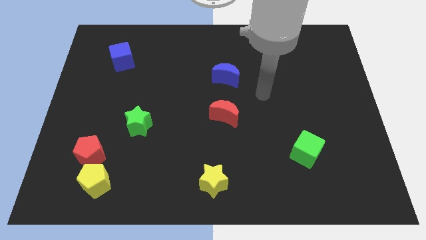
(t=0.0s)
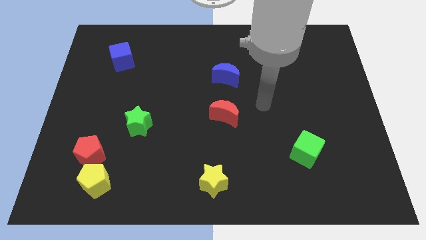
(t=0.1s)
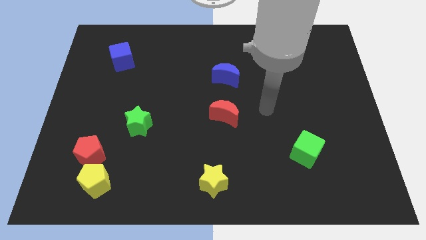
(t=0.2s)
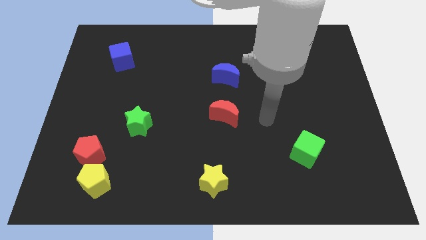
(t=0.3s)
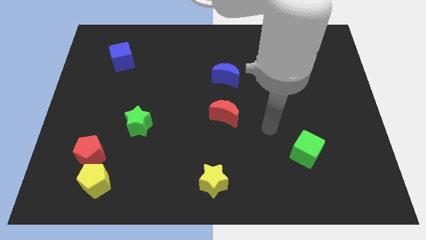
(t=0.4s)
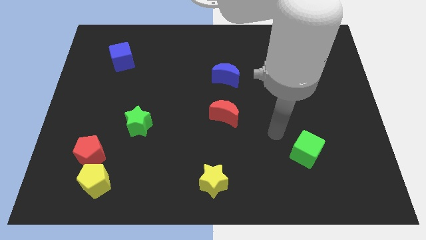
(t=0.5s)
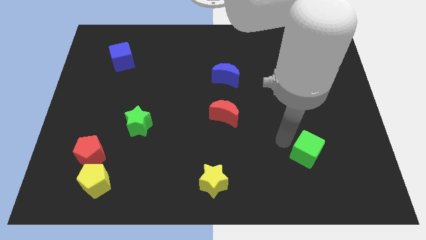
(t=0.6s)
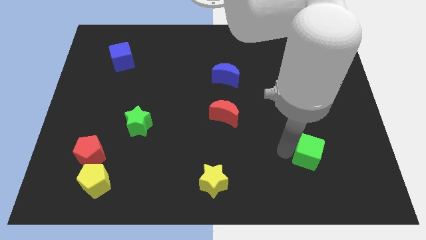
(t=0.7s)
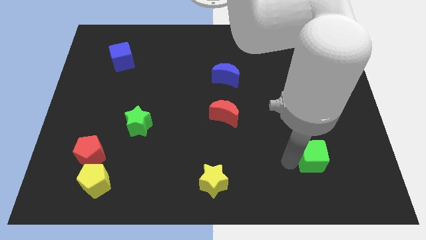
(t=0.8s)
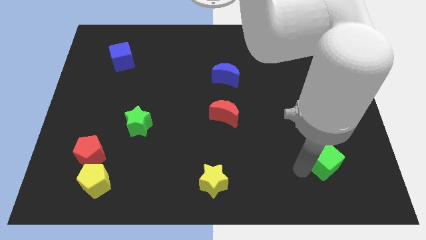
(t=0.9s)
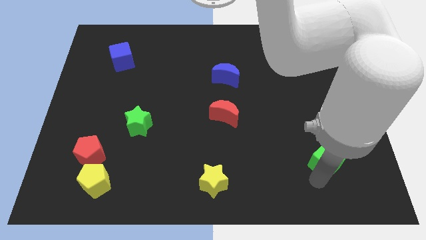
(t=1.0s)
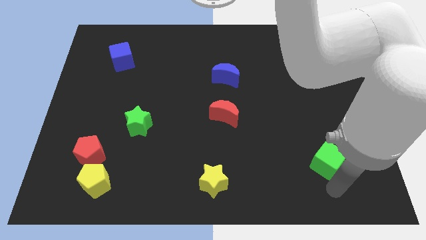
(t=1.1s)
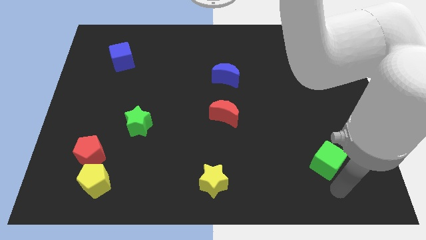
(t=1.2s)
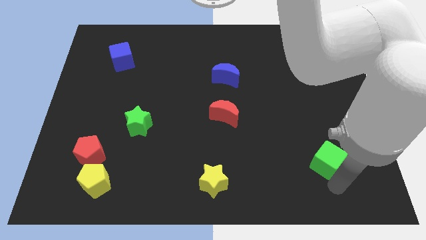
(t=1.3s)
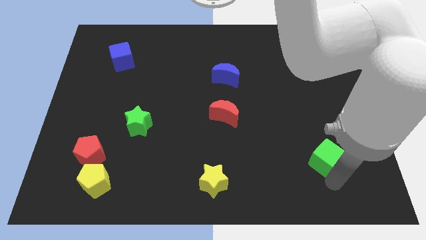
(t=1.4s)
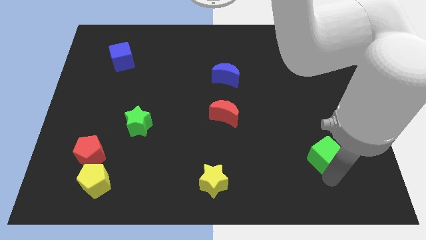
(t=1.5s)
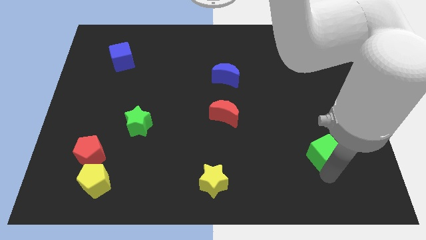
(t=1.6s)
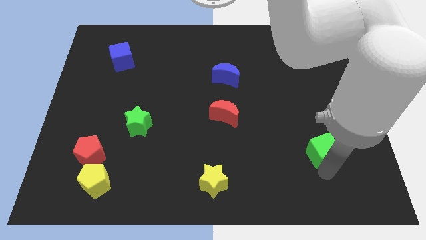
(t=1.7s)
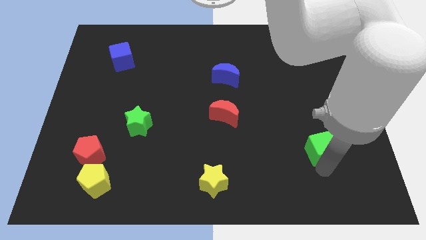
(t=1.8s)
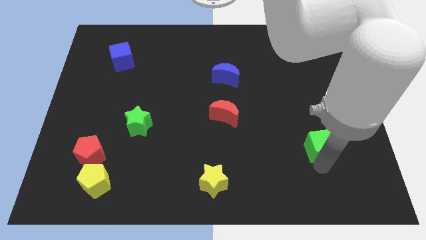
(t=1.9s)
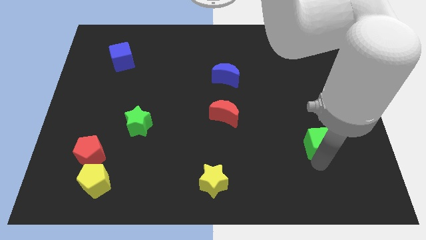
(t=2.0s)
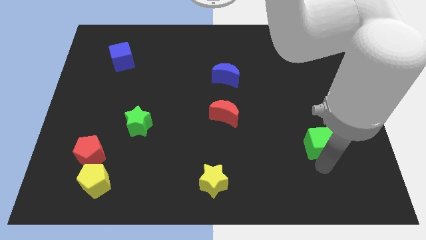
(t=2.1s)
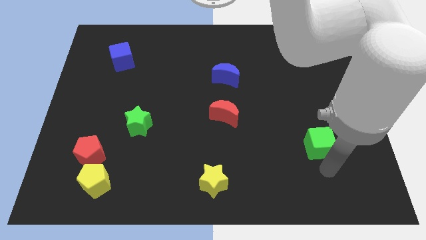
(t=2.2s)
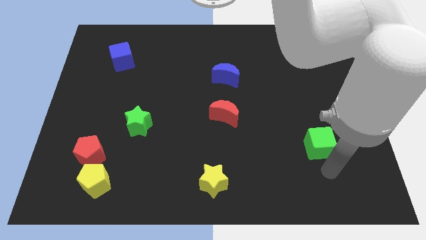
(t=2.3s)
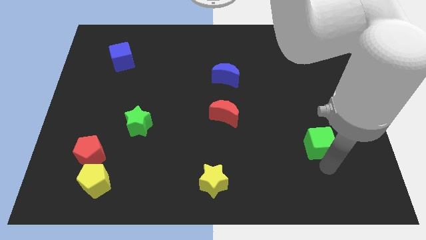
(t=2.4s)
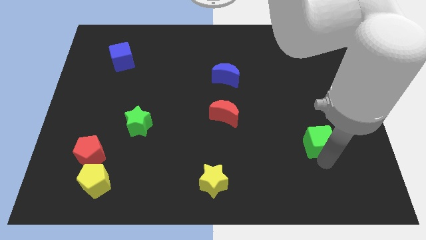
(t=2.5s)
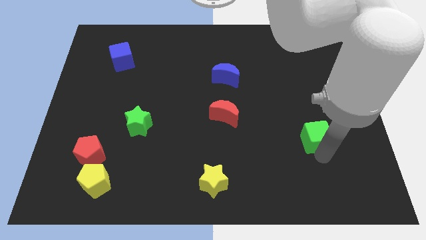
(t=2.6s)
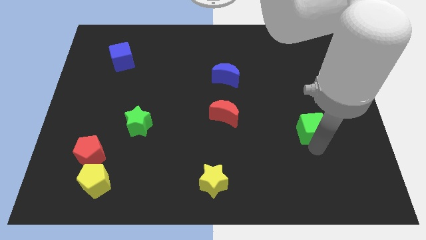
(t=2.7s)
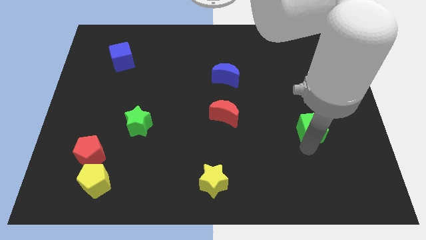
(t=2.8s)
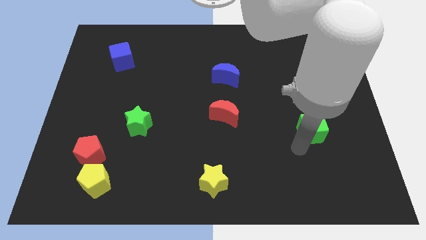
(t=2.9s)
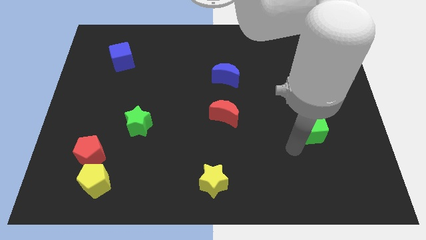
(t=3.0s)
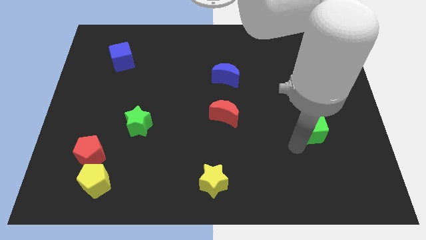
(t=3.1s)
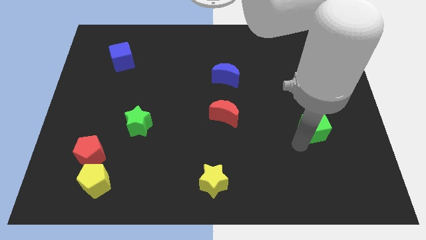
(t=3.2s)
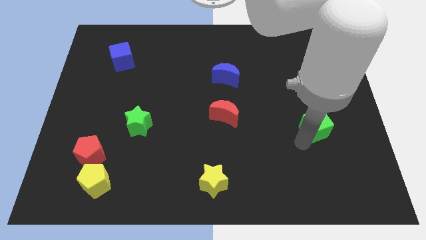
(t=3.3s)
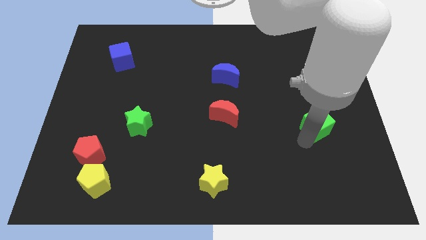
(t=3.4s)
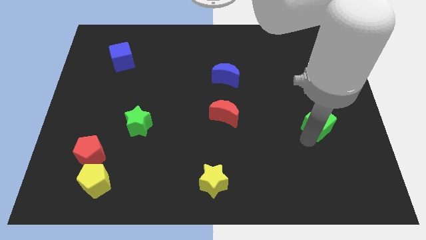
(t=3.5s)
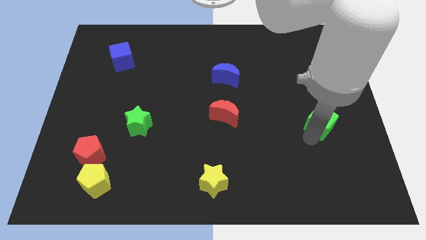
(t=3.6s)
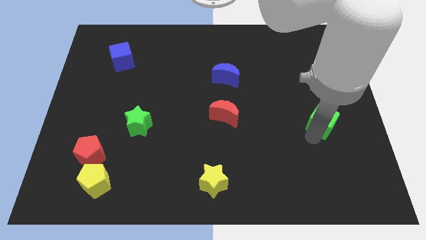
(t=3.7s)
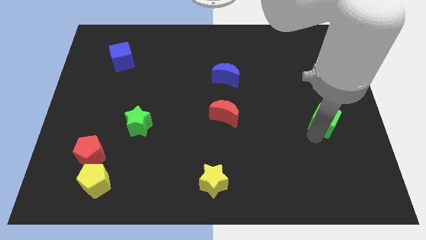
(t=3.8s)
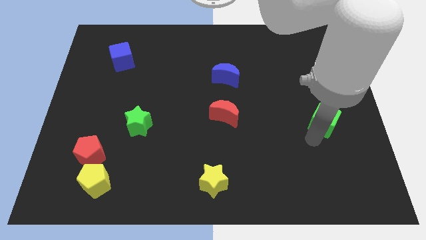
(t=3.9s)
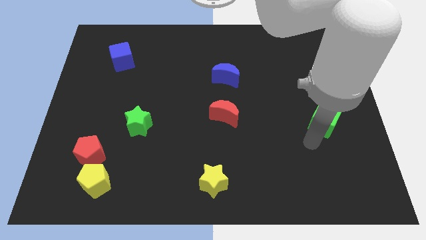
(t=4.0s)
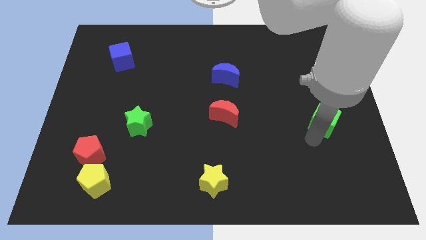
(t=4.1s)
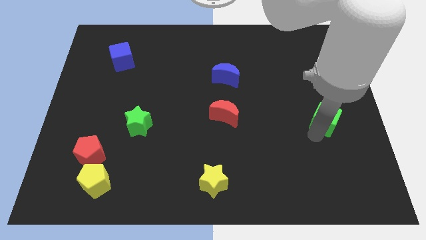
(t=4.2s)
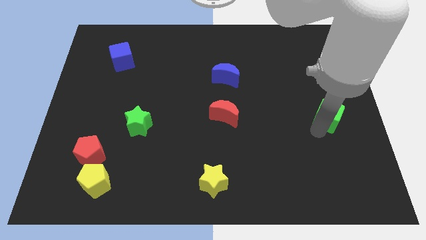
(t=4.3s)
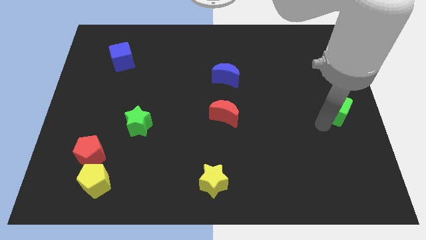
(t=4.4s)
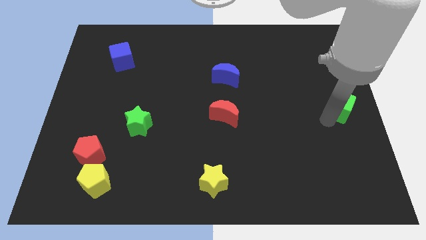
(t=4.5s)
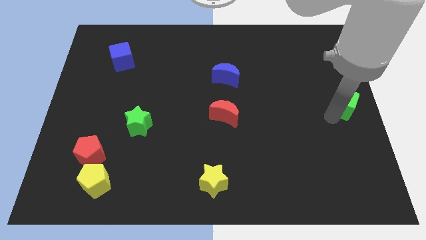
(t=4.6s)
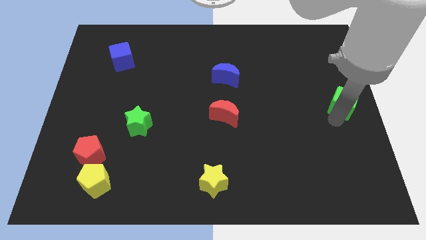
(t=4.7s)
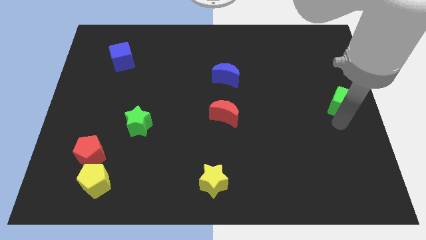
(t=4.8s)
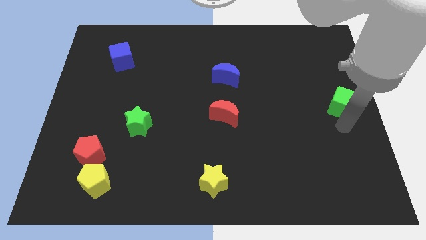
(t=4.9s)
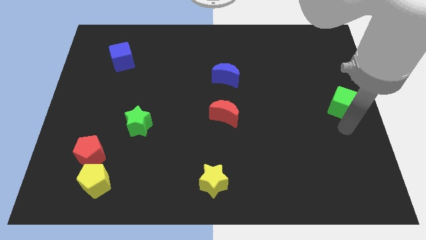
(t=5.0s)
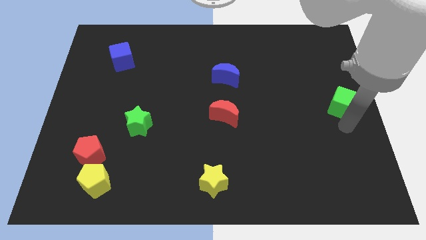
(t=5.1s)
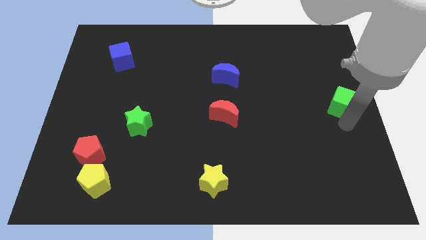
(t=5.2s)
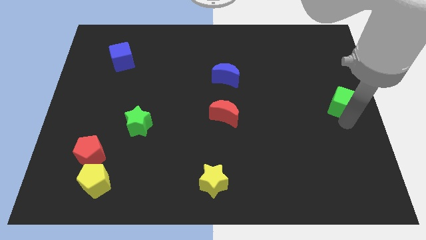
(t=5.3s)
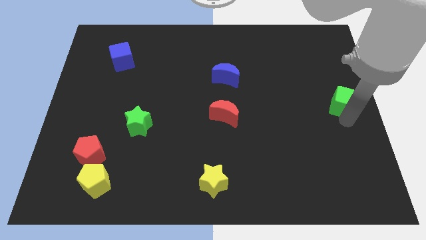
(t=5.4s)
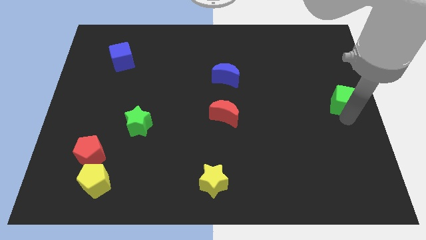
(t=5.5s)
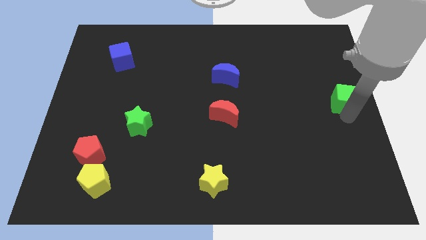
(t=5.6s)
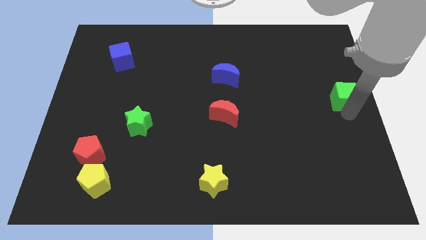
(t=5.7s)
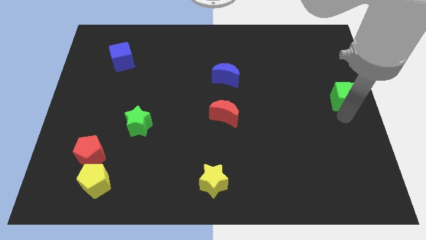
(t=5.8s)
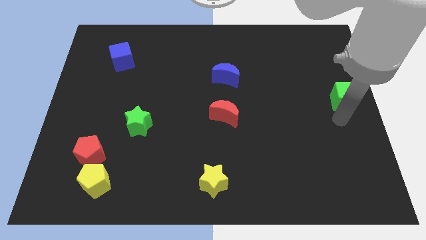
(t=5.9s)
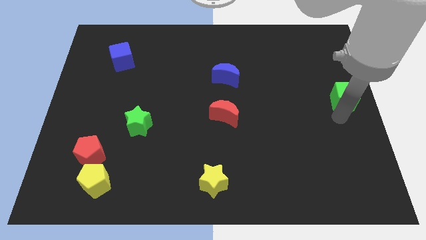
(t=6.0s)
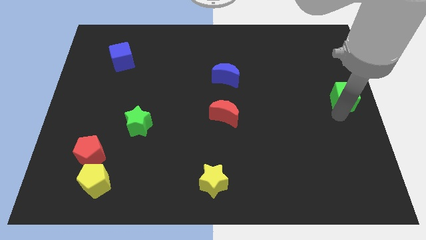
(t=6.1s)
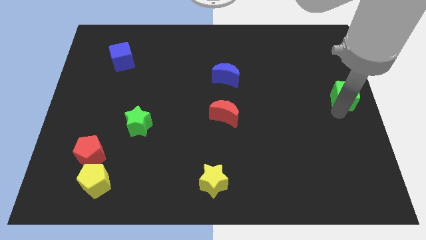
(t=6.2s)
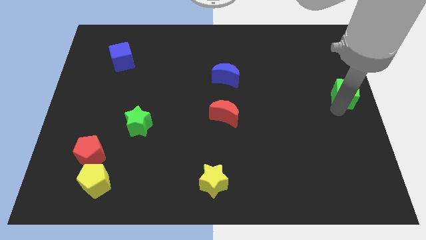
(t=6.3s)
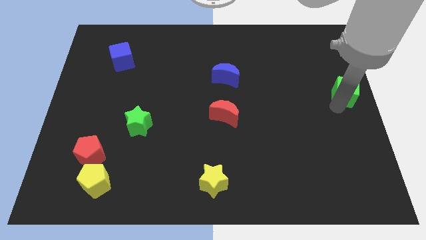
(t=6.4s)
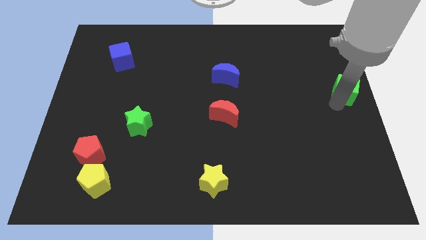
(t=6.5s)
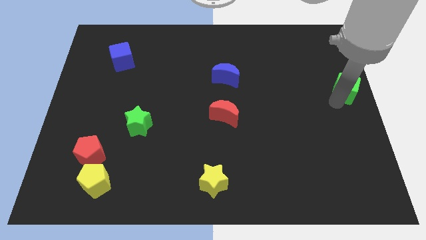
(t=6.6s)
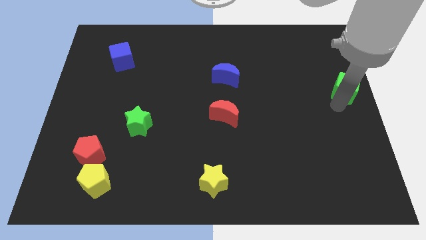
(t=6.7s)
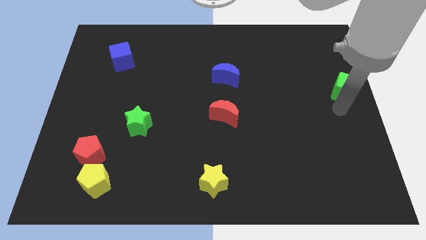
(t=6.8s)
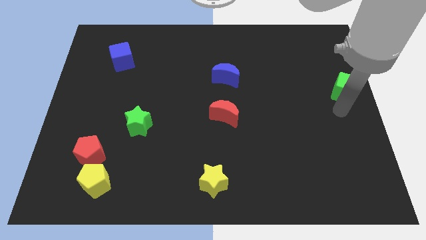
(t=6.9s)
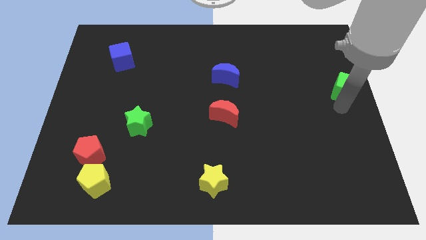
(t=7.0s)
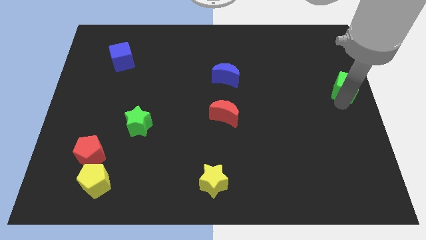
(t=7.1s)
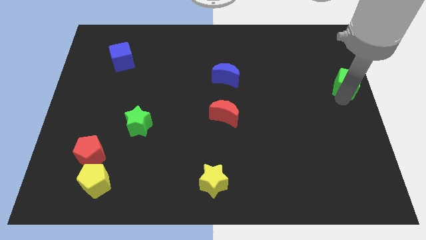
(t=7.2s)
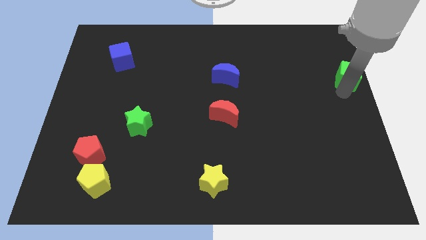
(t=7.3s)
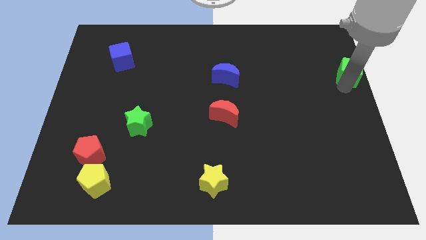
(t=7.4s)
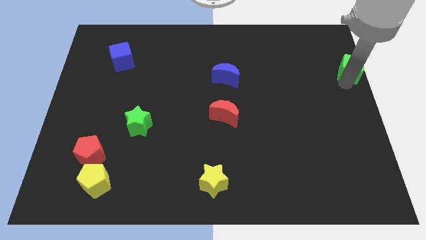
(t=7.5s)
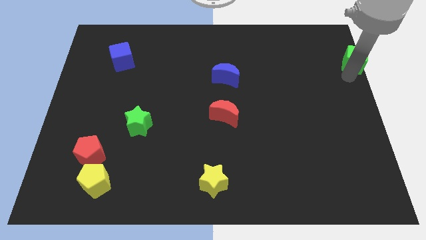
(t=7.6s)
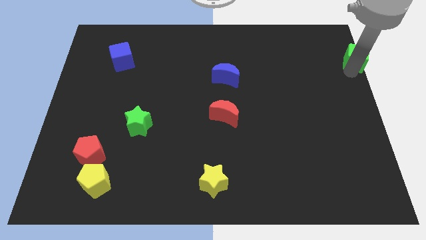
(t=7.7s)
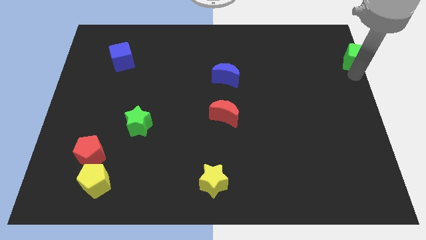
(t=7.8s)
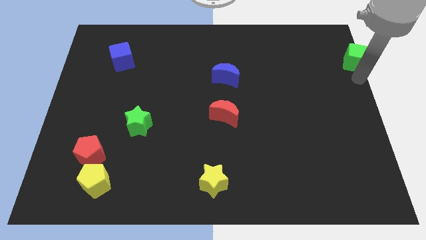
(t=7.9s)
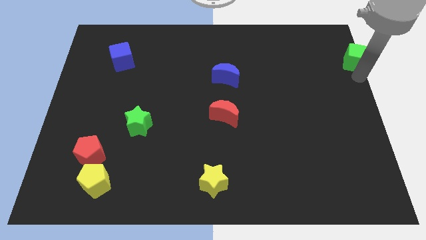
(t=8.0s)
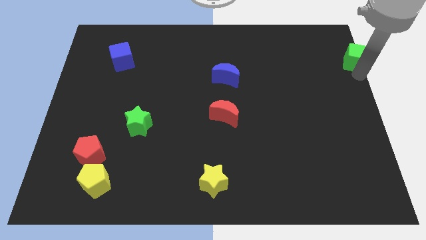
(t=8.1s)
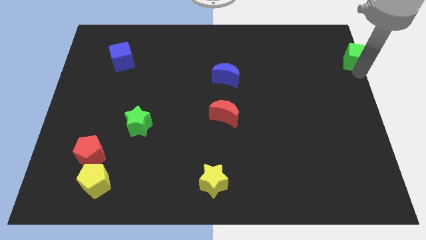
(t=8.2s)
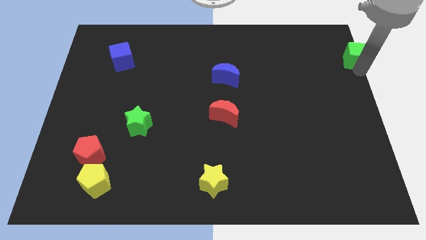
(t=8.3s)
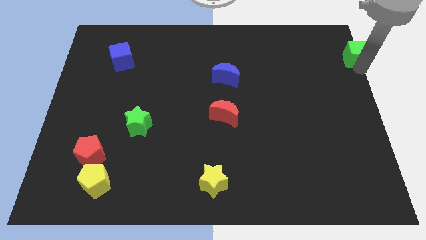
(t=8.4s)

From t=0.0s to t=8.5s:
move the green cube to the top right corner
